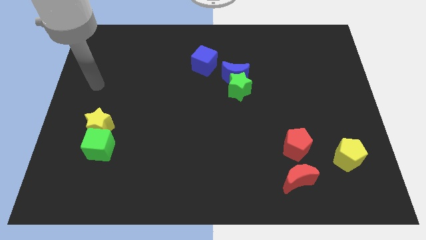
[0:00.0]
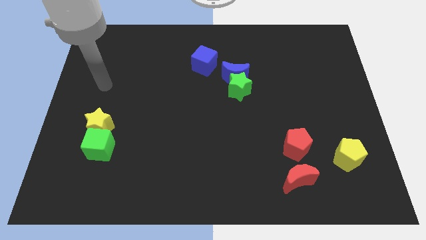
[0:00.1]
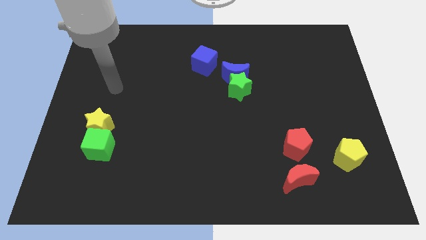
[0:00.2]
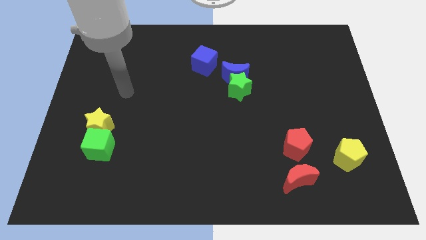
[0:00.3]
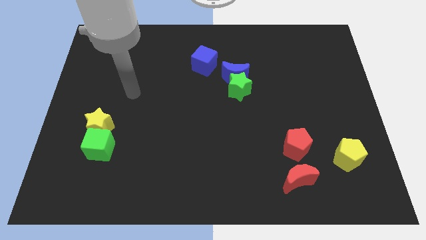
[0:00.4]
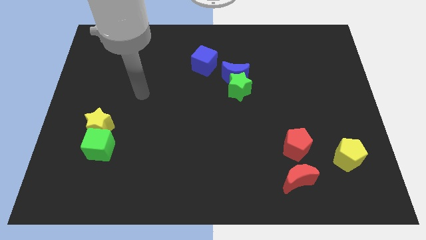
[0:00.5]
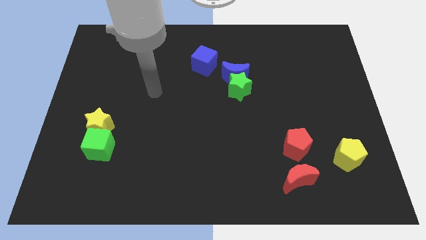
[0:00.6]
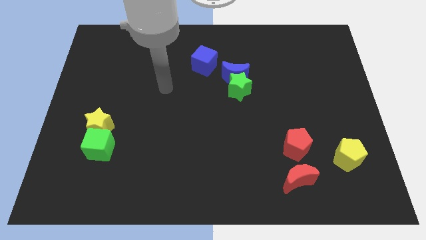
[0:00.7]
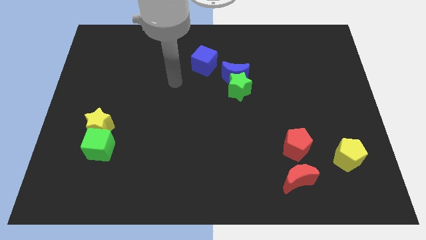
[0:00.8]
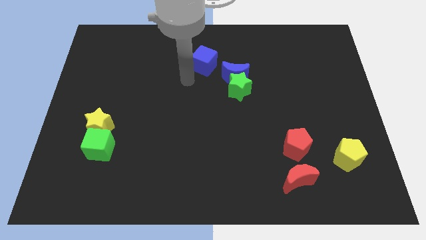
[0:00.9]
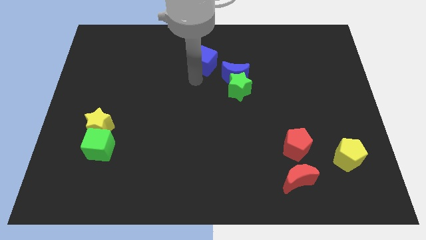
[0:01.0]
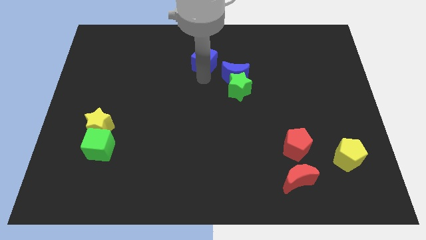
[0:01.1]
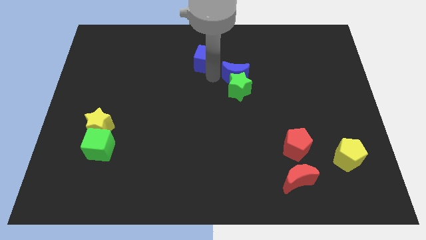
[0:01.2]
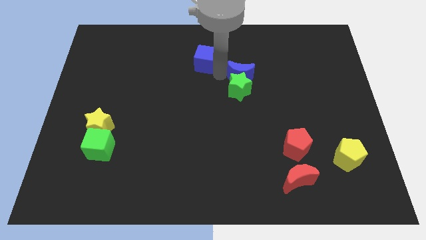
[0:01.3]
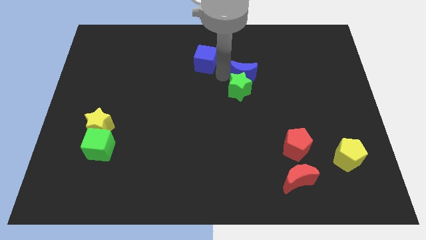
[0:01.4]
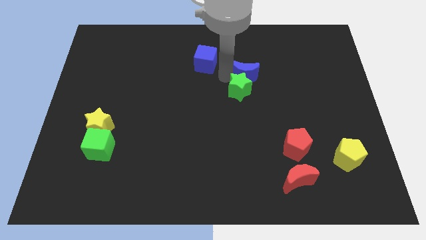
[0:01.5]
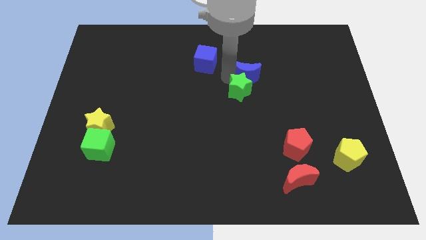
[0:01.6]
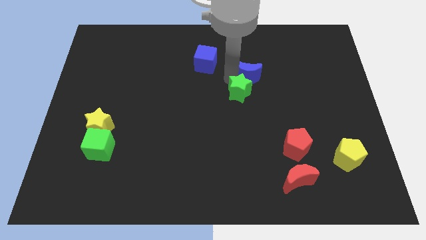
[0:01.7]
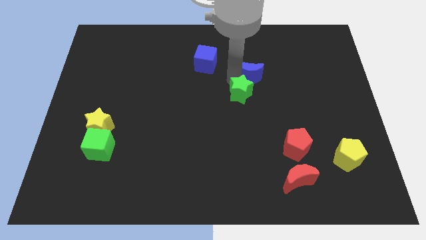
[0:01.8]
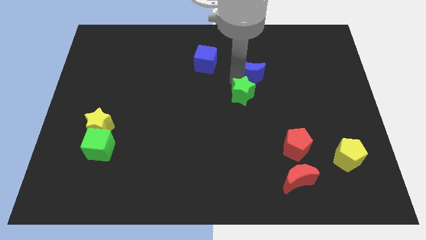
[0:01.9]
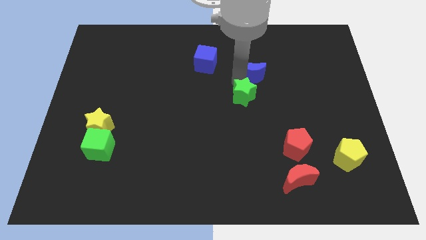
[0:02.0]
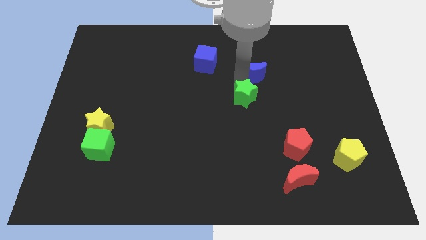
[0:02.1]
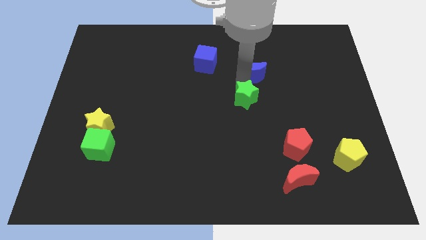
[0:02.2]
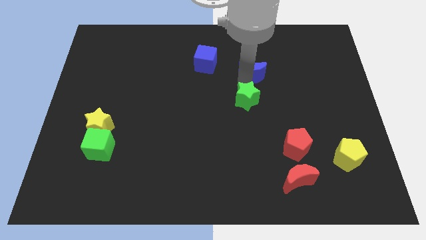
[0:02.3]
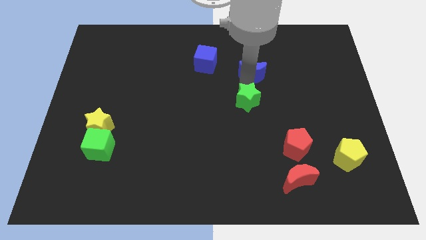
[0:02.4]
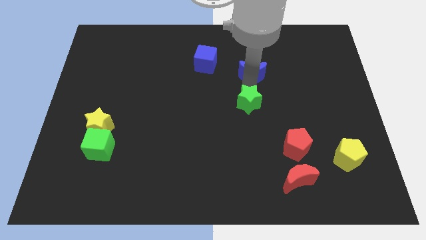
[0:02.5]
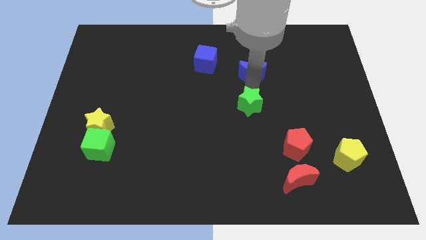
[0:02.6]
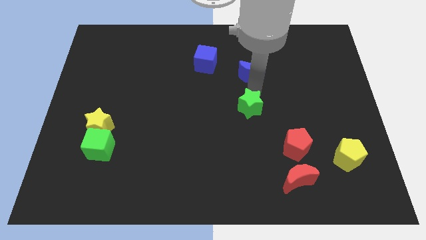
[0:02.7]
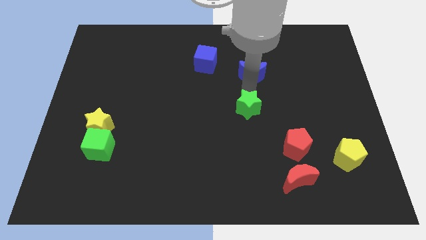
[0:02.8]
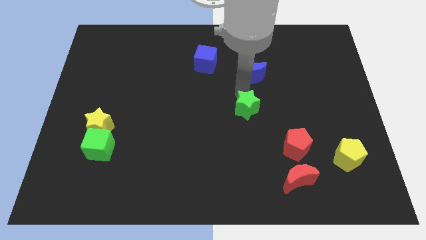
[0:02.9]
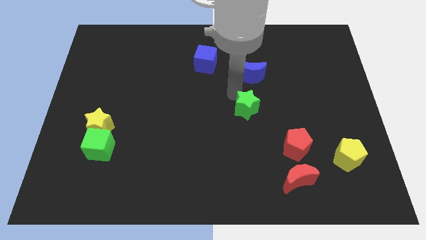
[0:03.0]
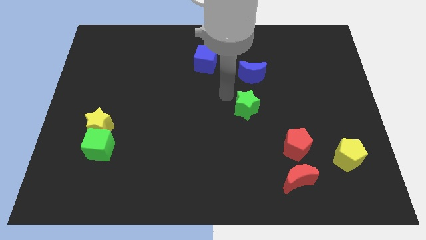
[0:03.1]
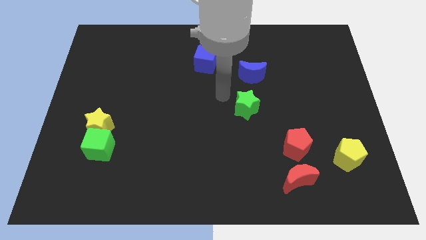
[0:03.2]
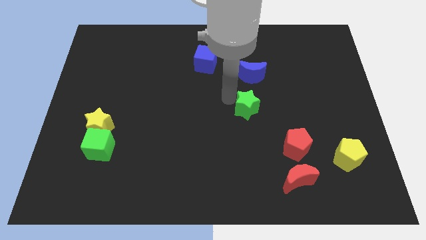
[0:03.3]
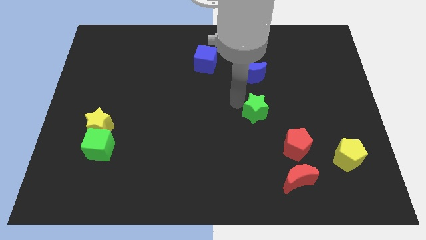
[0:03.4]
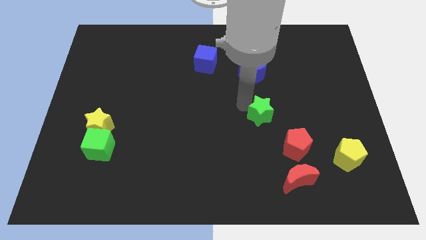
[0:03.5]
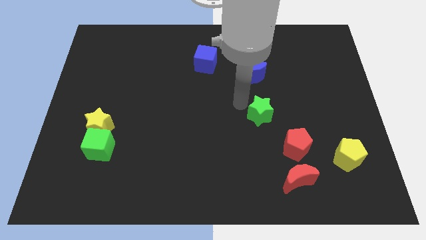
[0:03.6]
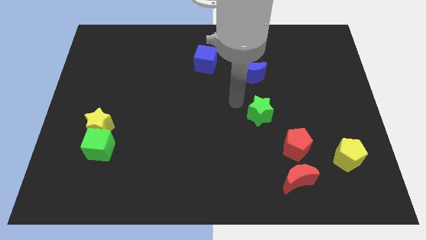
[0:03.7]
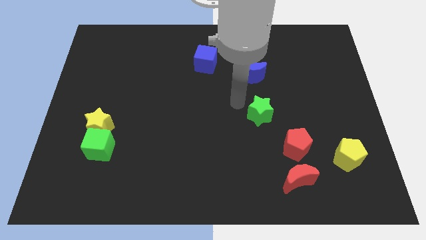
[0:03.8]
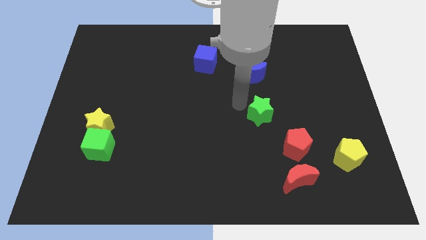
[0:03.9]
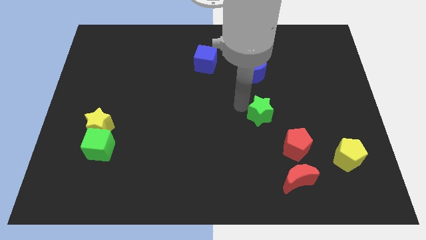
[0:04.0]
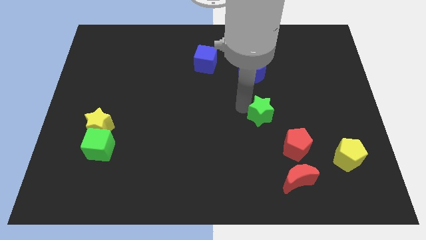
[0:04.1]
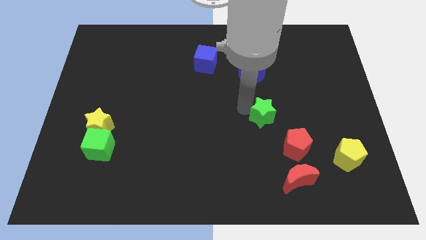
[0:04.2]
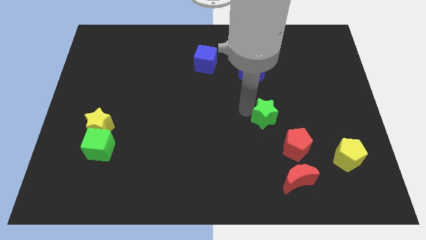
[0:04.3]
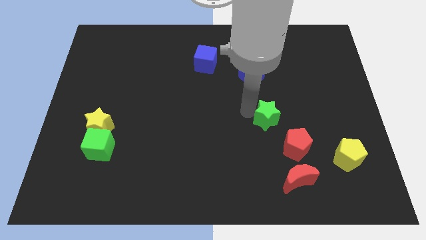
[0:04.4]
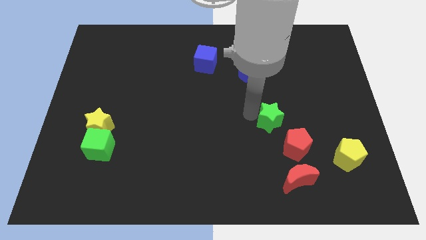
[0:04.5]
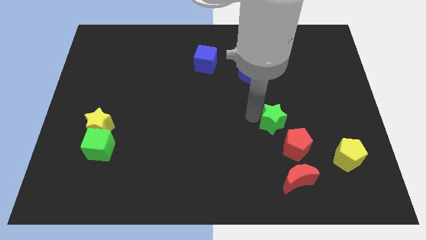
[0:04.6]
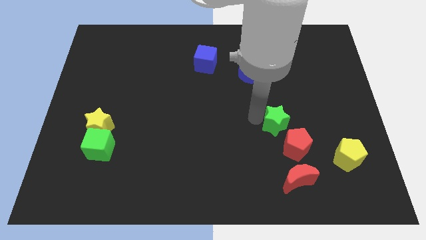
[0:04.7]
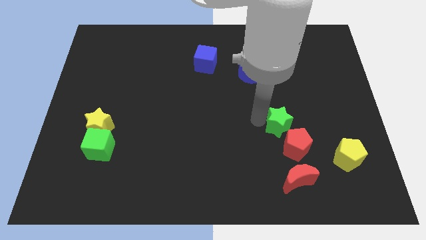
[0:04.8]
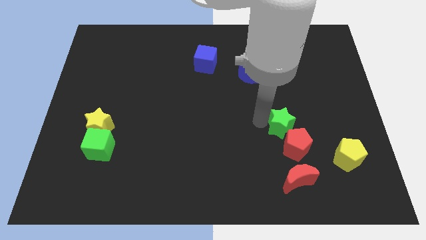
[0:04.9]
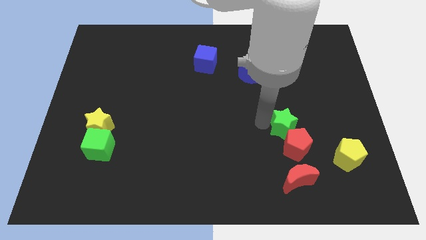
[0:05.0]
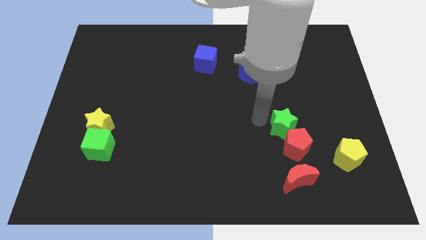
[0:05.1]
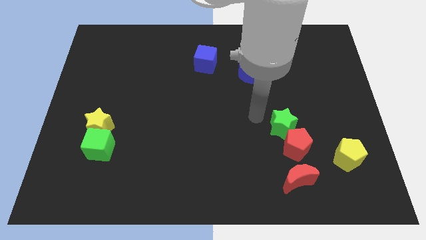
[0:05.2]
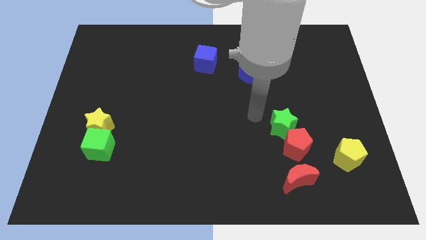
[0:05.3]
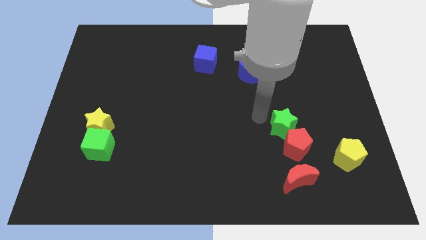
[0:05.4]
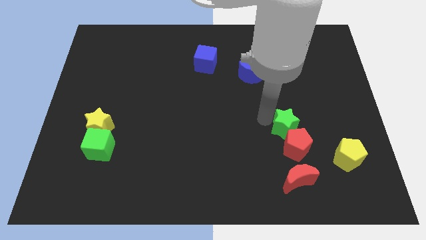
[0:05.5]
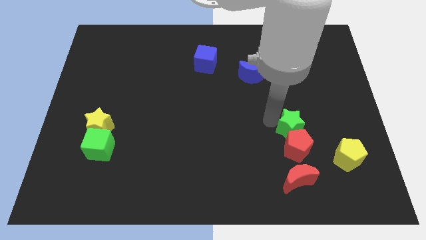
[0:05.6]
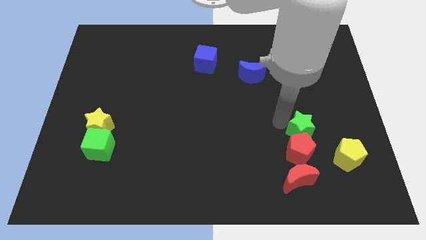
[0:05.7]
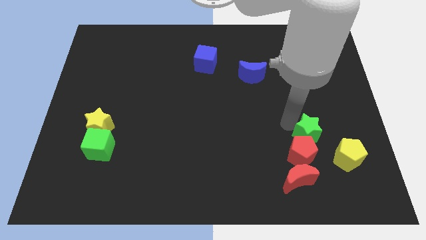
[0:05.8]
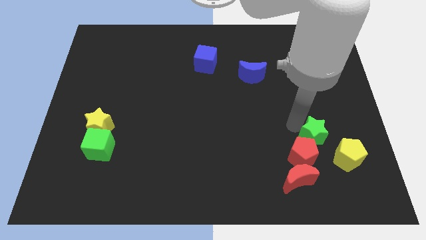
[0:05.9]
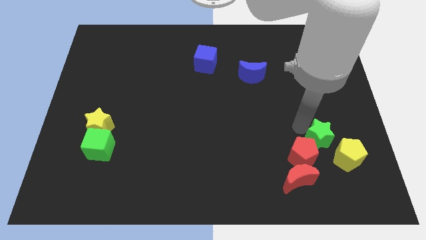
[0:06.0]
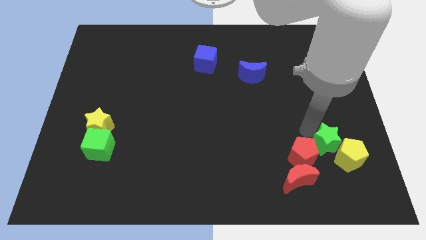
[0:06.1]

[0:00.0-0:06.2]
slide the green star towards the yellow pentagon

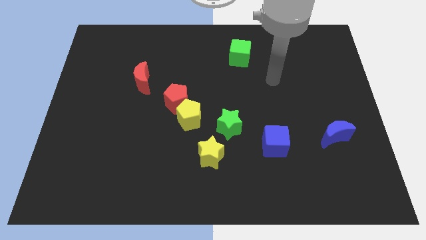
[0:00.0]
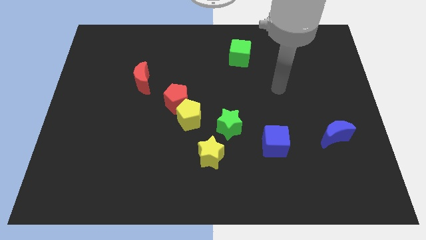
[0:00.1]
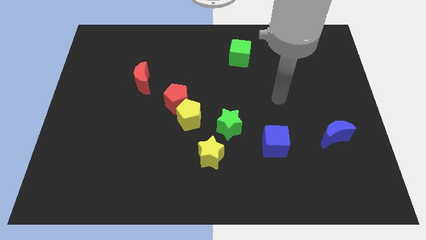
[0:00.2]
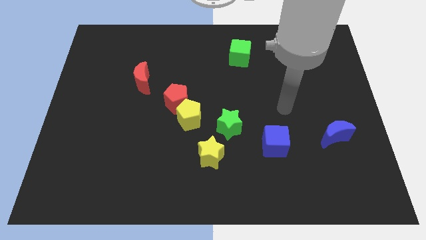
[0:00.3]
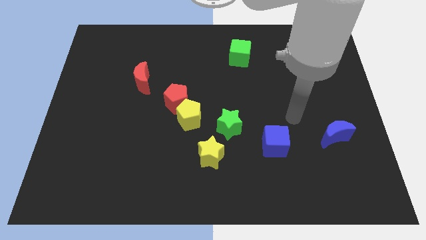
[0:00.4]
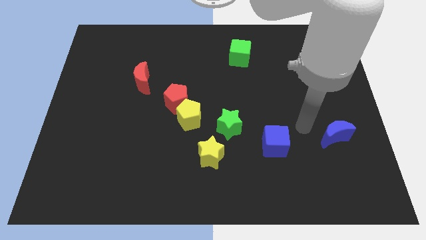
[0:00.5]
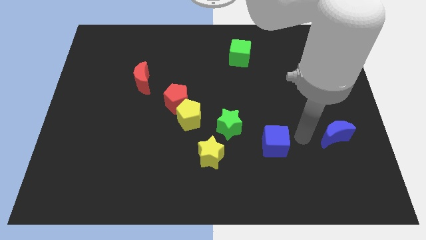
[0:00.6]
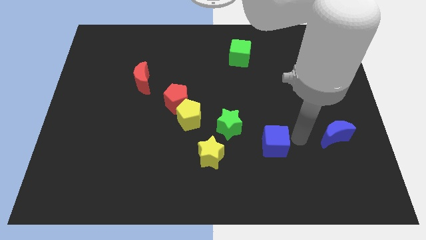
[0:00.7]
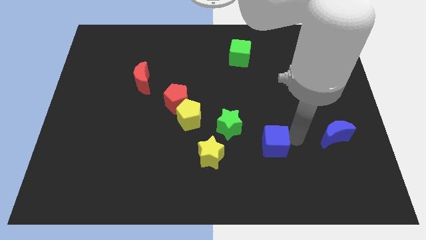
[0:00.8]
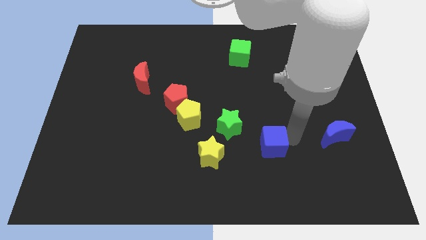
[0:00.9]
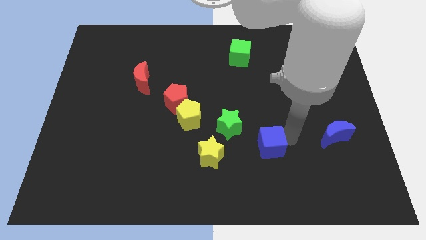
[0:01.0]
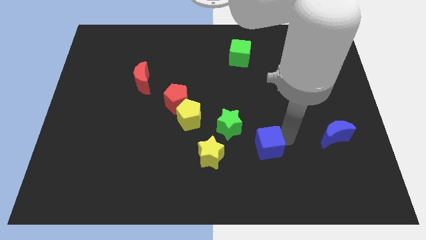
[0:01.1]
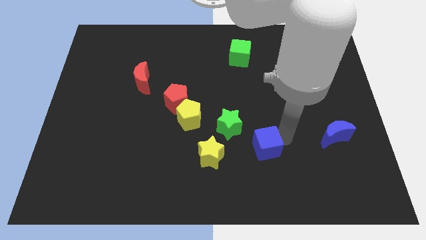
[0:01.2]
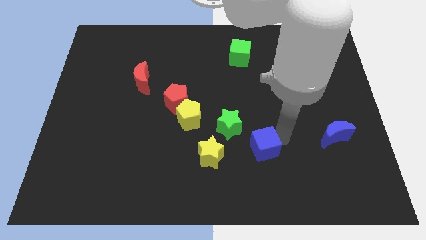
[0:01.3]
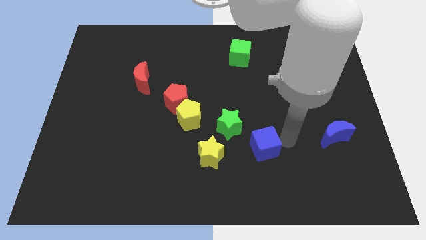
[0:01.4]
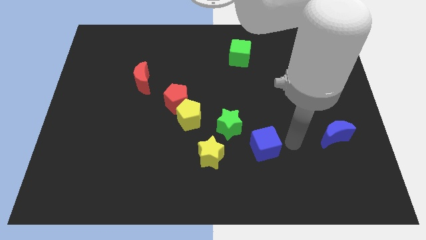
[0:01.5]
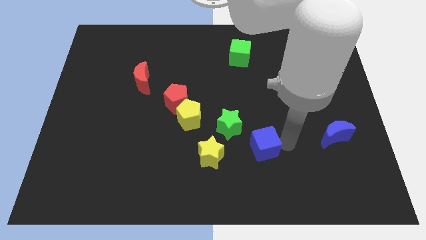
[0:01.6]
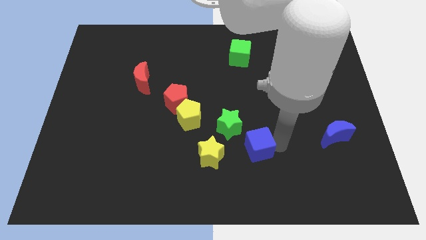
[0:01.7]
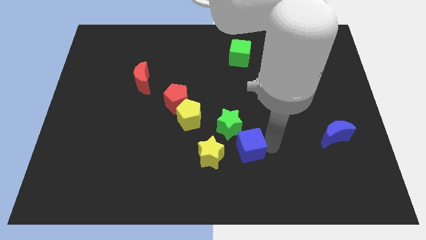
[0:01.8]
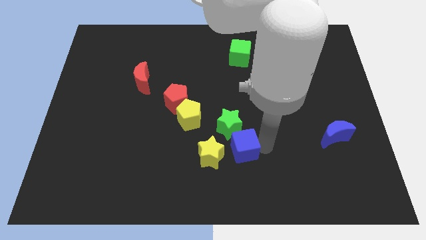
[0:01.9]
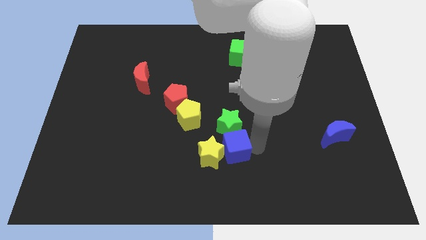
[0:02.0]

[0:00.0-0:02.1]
put the blue cube next to the yellow star
